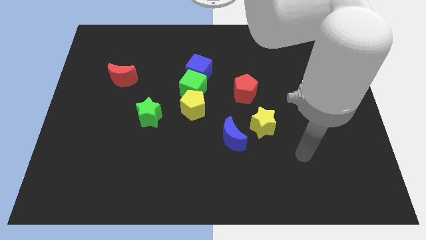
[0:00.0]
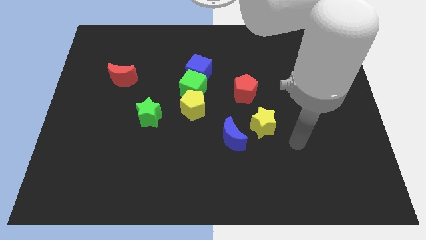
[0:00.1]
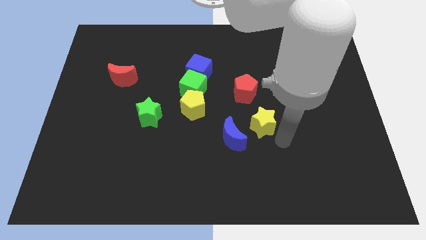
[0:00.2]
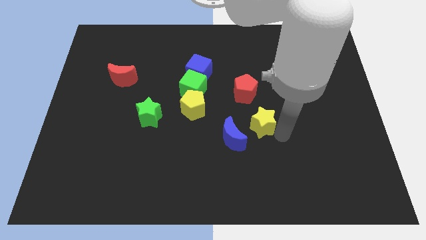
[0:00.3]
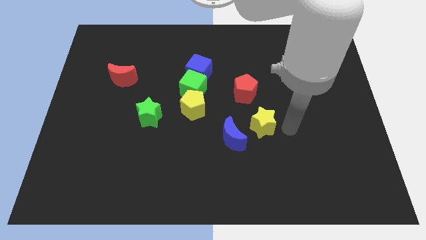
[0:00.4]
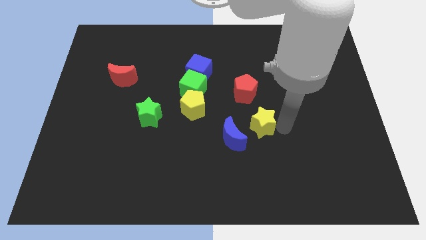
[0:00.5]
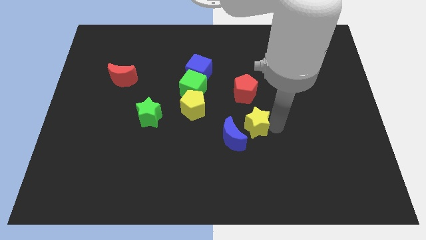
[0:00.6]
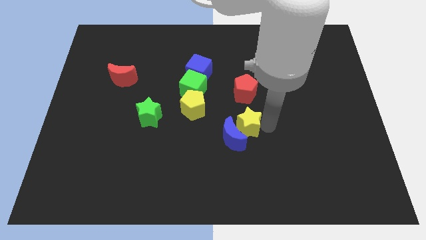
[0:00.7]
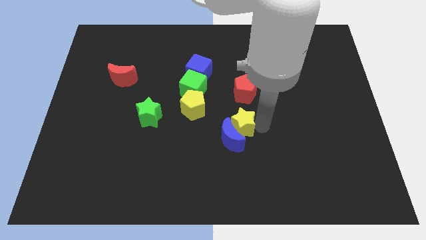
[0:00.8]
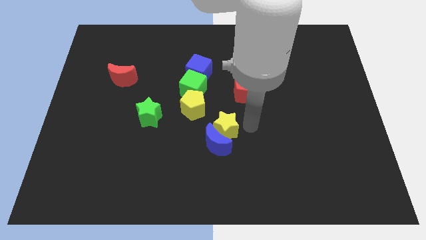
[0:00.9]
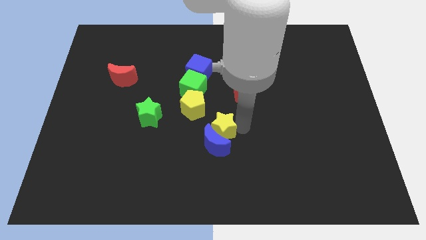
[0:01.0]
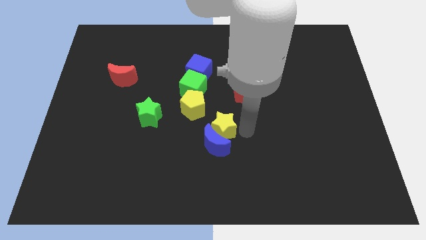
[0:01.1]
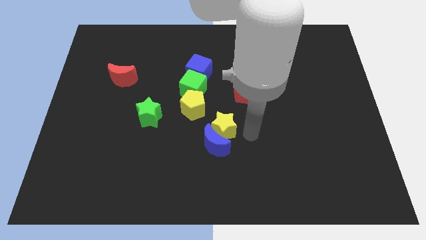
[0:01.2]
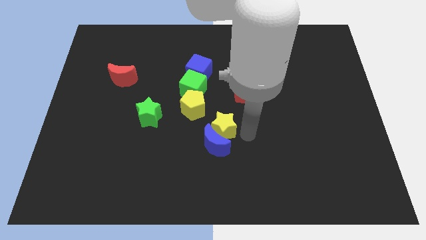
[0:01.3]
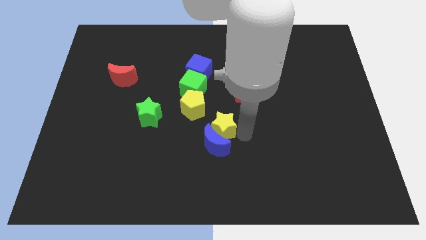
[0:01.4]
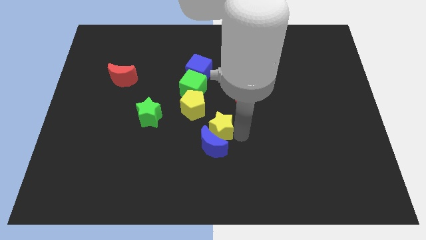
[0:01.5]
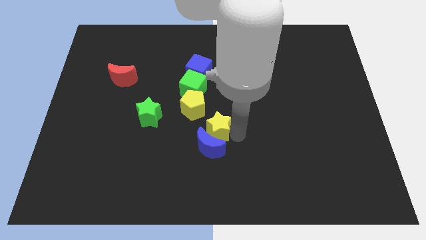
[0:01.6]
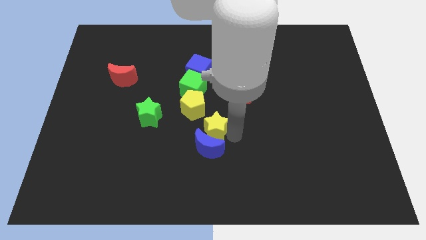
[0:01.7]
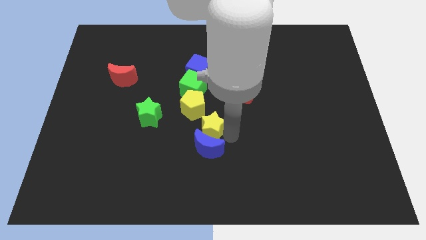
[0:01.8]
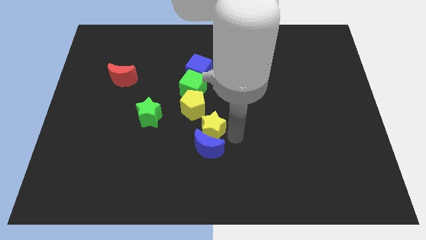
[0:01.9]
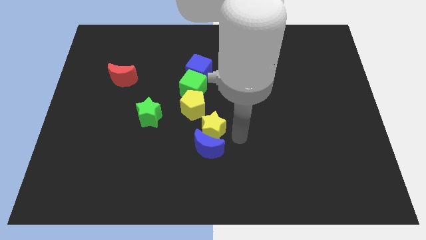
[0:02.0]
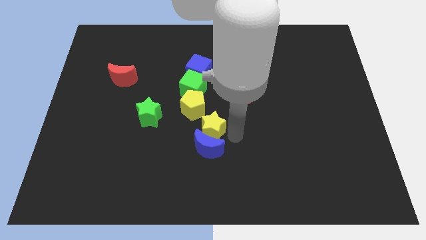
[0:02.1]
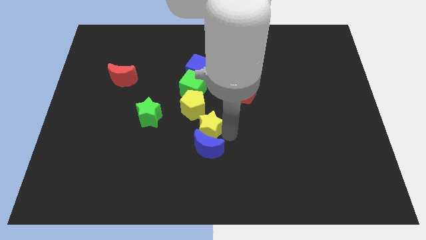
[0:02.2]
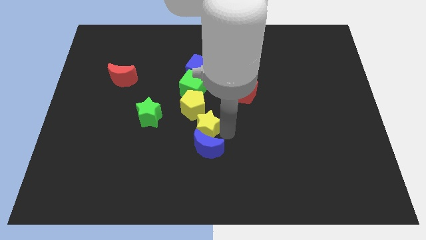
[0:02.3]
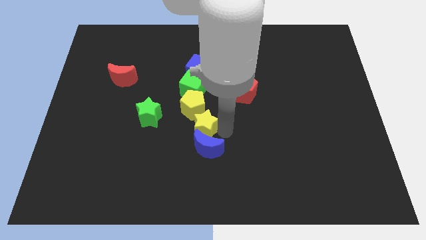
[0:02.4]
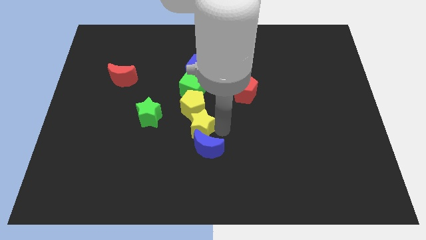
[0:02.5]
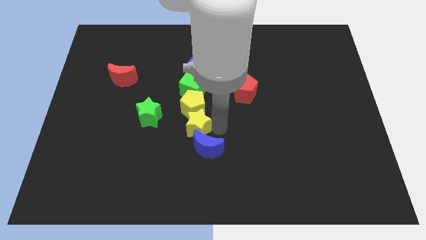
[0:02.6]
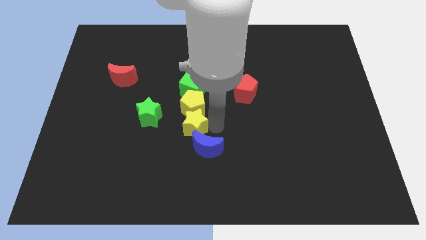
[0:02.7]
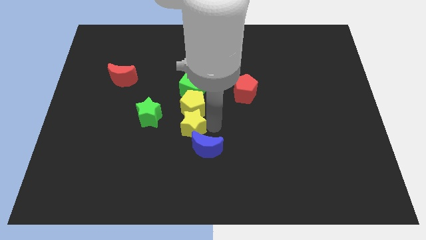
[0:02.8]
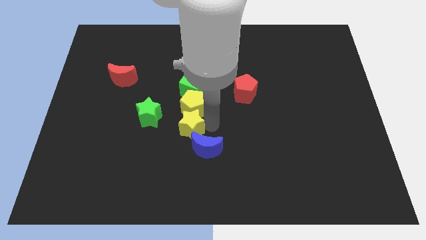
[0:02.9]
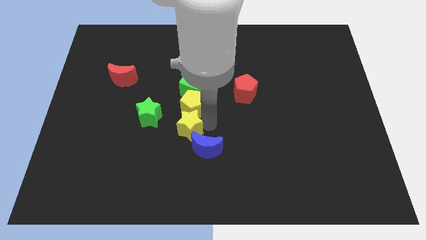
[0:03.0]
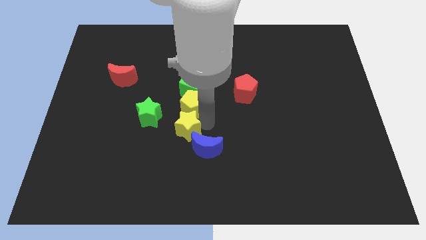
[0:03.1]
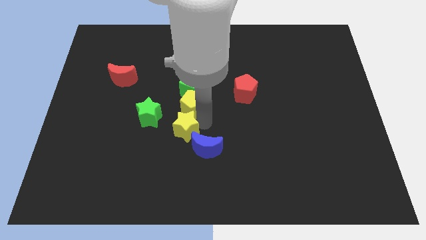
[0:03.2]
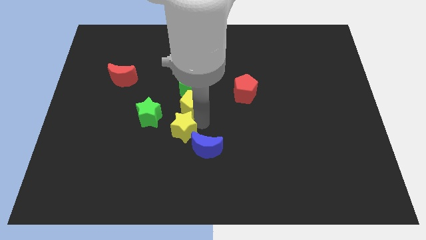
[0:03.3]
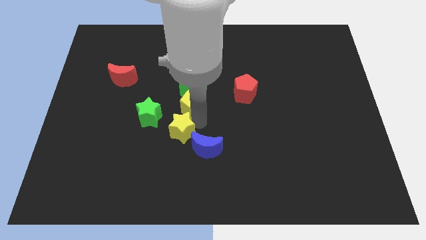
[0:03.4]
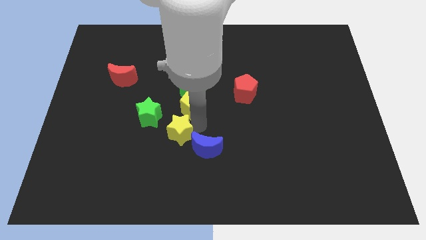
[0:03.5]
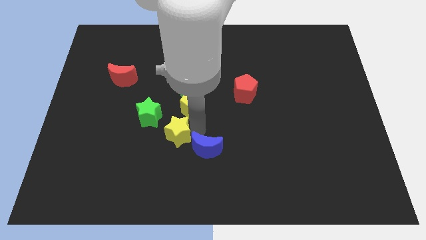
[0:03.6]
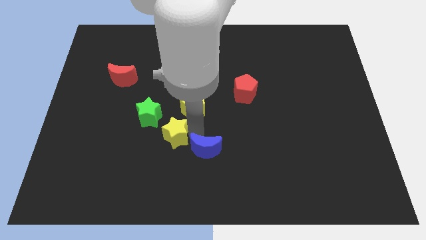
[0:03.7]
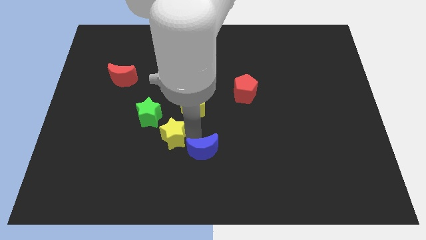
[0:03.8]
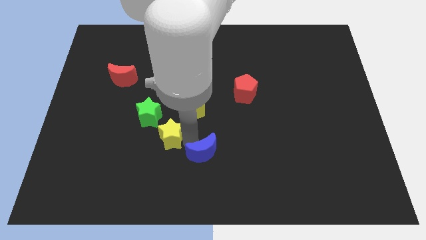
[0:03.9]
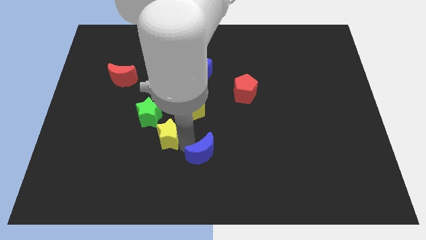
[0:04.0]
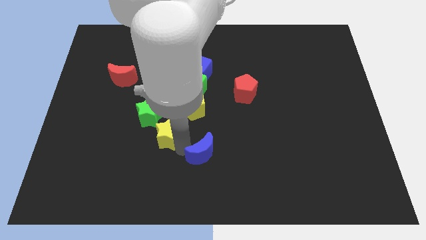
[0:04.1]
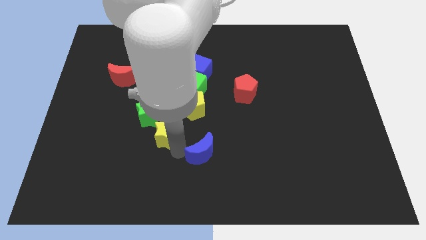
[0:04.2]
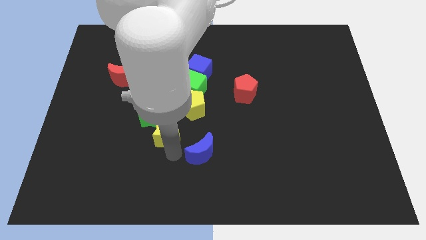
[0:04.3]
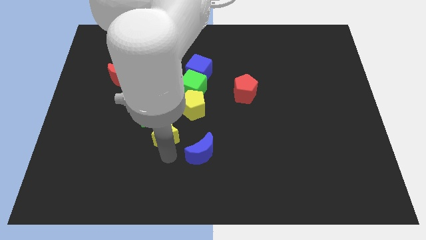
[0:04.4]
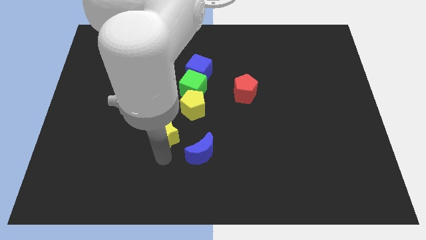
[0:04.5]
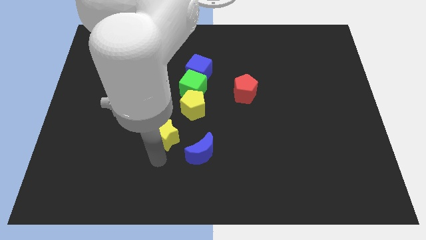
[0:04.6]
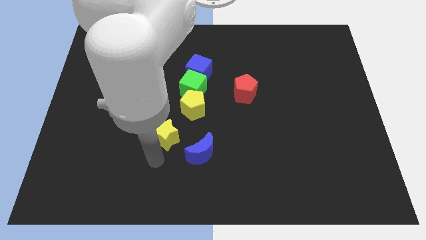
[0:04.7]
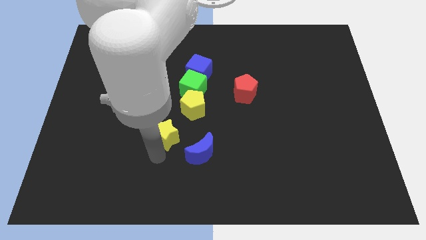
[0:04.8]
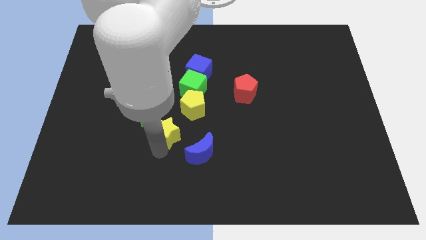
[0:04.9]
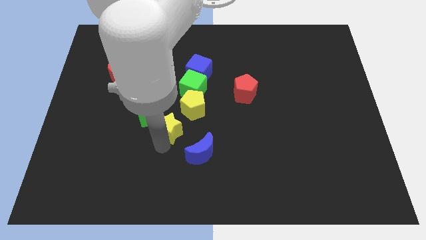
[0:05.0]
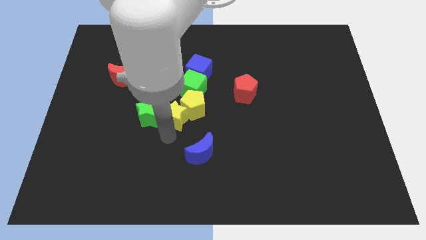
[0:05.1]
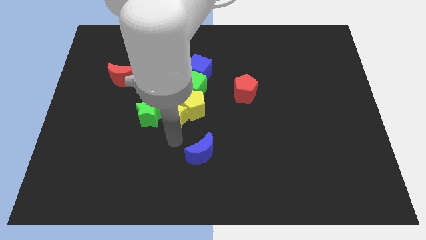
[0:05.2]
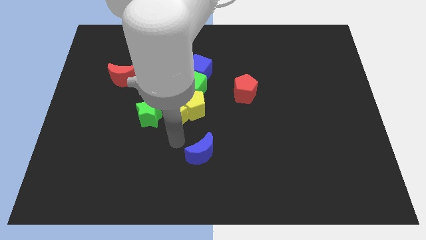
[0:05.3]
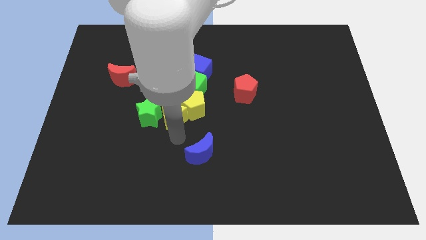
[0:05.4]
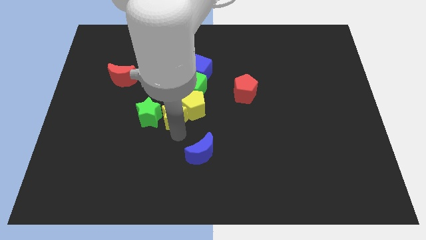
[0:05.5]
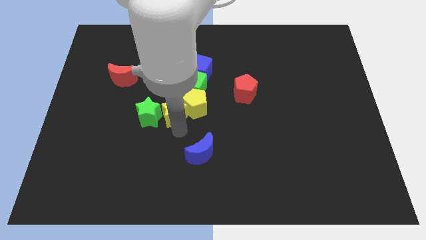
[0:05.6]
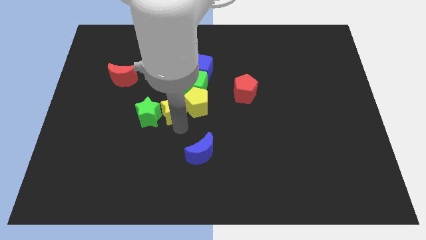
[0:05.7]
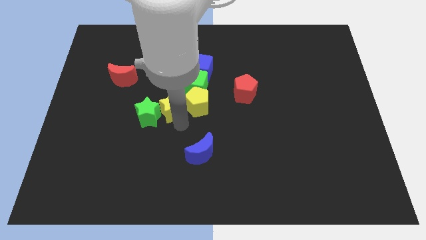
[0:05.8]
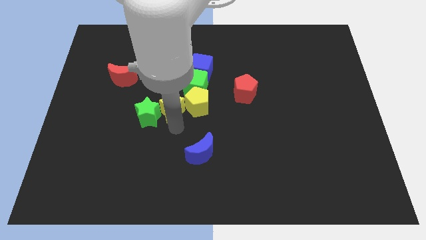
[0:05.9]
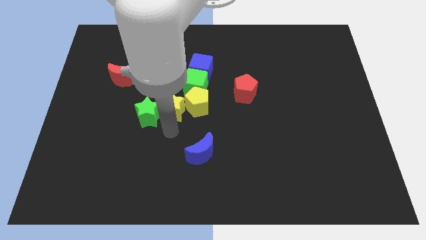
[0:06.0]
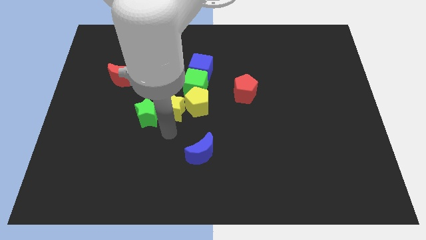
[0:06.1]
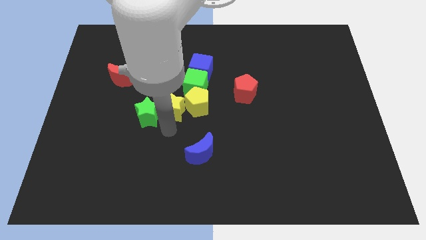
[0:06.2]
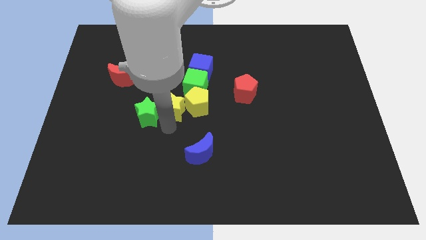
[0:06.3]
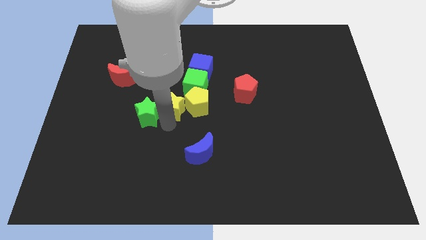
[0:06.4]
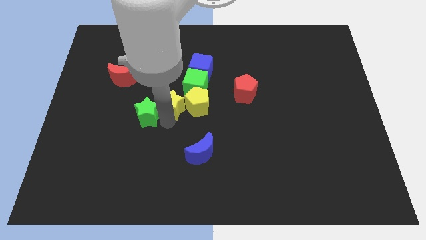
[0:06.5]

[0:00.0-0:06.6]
push the yellow star to the top left of the yellow pentagon
